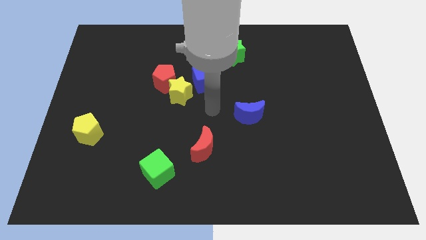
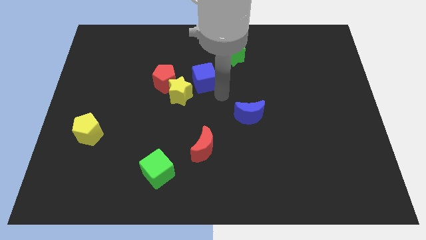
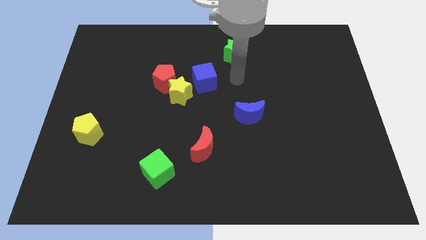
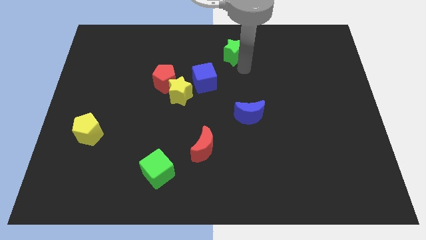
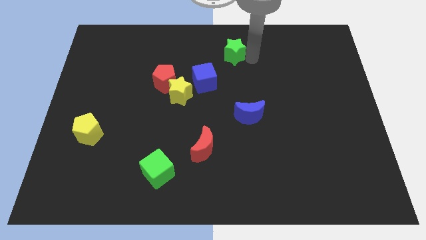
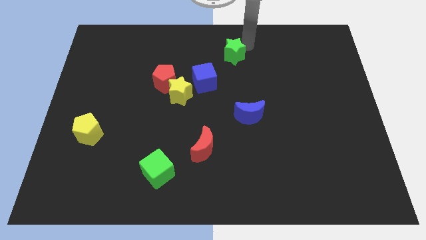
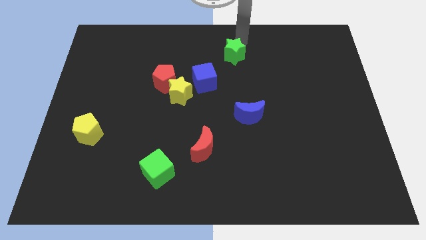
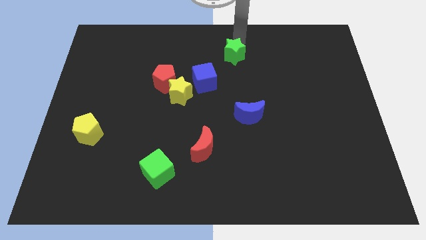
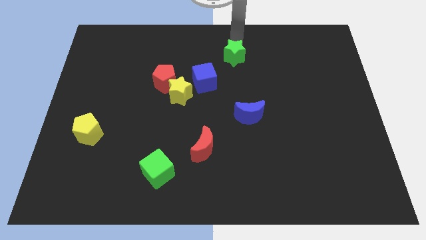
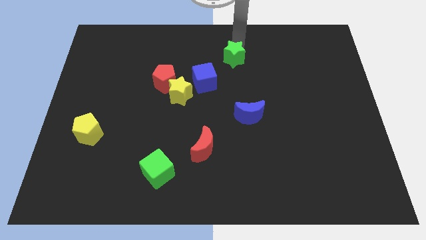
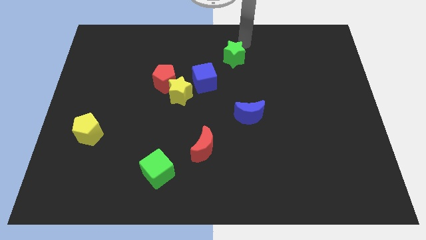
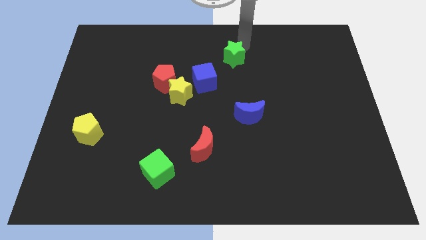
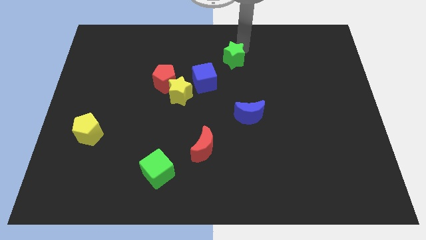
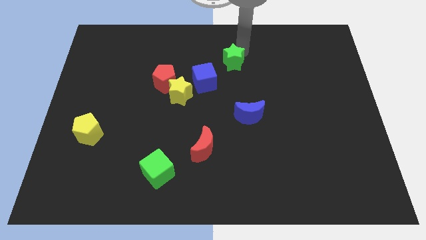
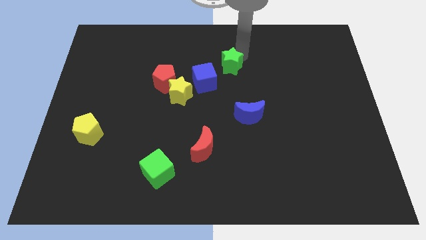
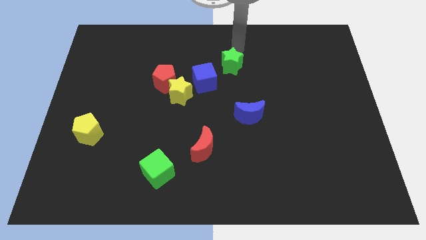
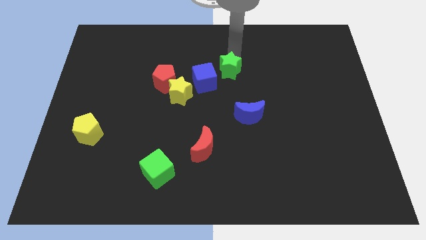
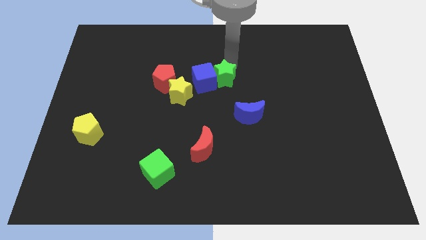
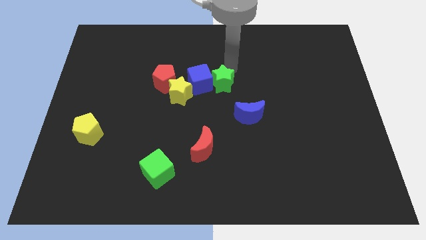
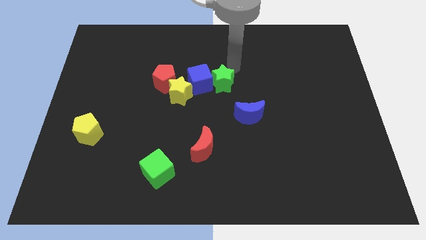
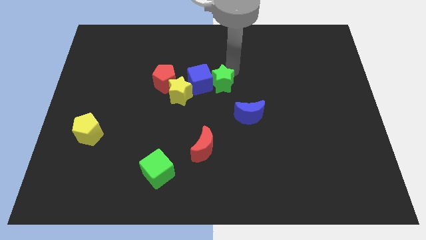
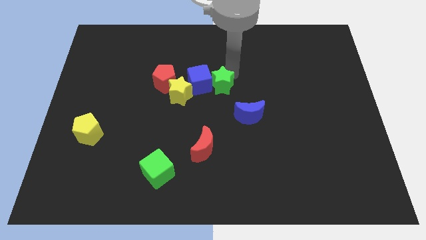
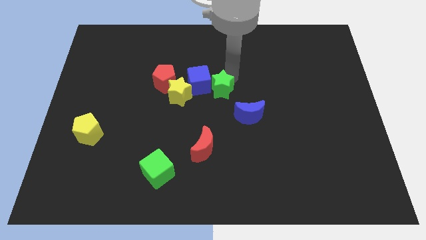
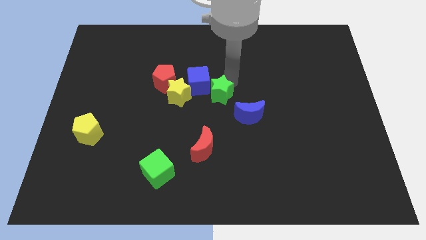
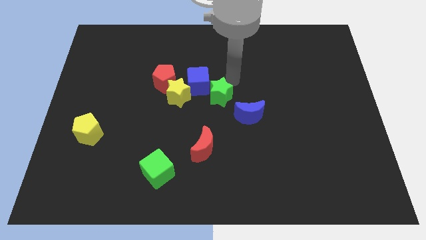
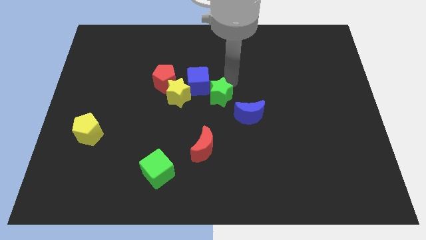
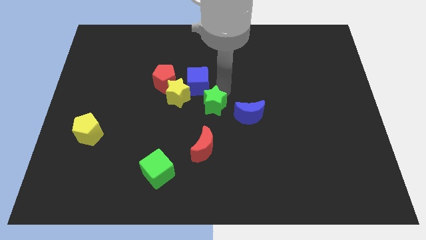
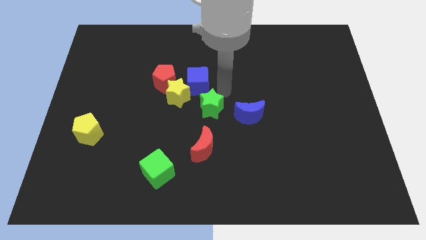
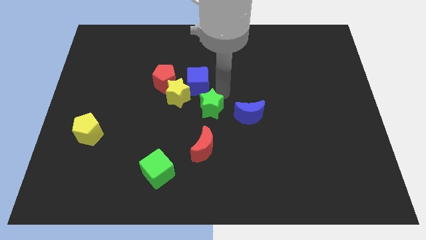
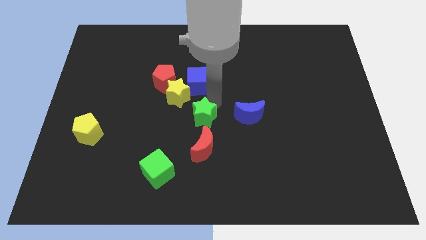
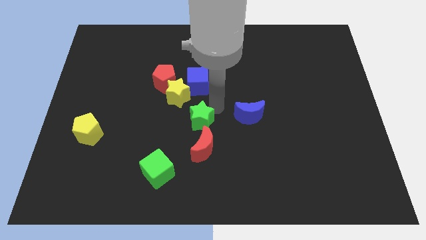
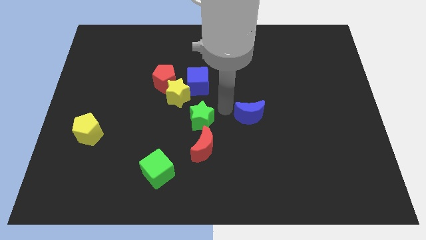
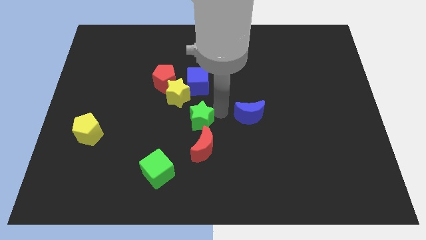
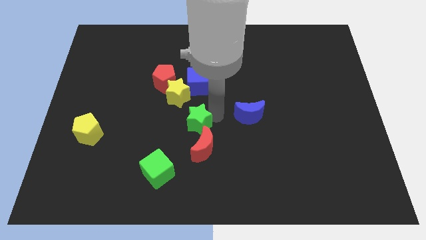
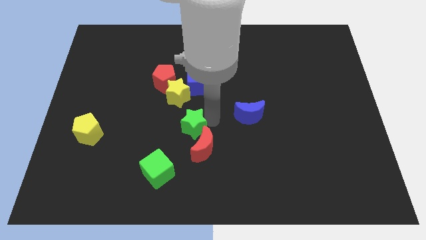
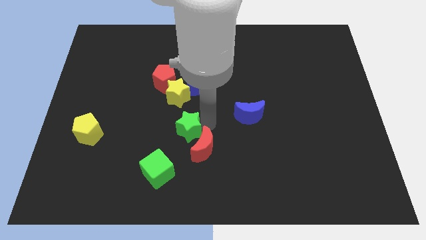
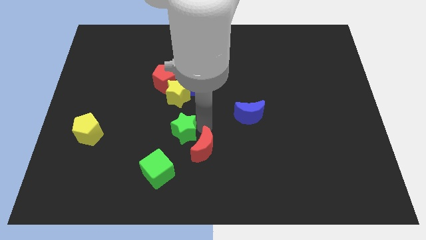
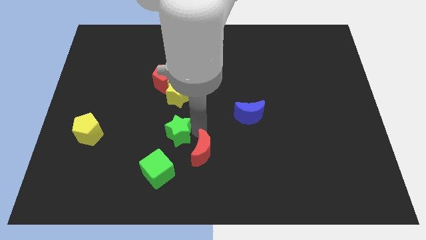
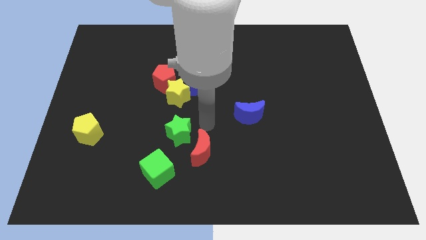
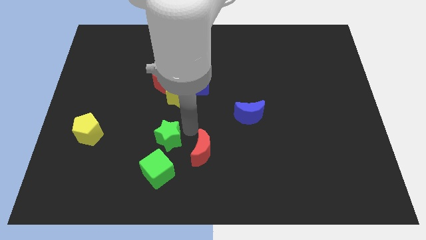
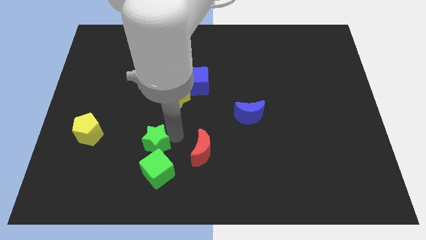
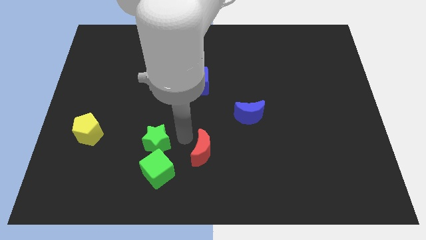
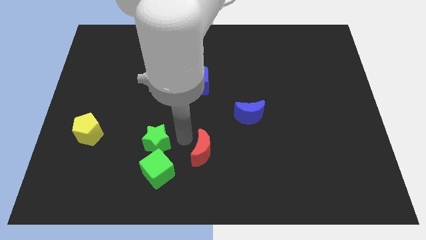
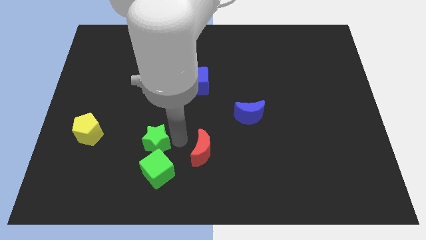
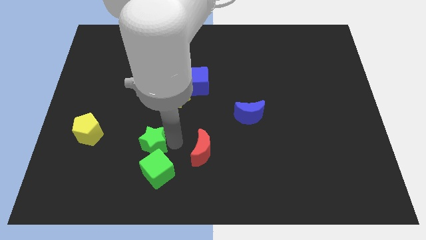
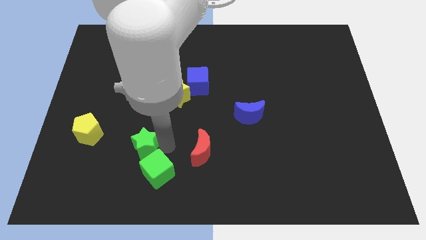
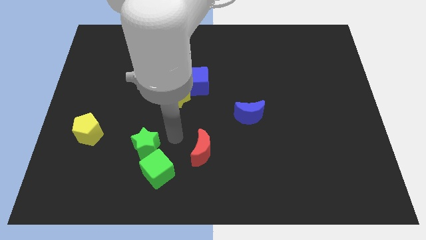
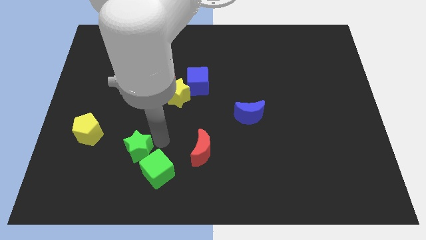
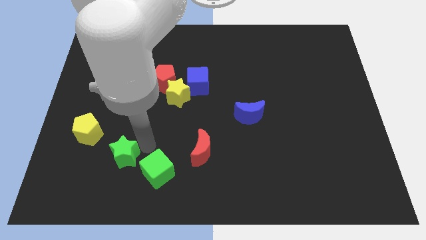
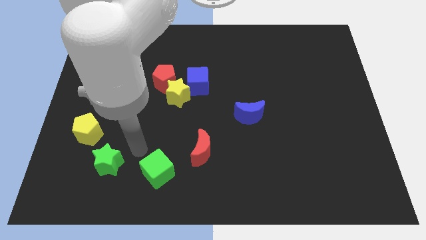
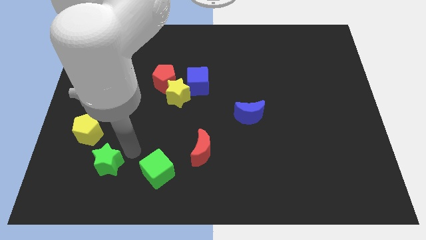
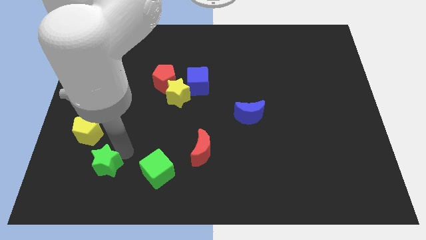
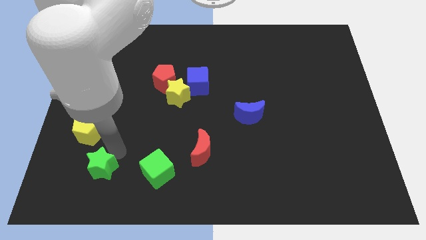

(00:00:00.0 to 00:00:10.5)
move the green star below the yellow pentagon

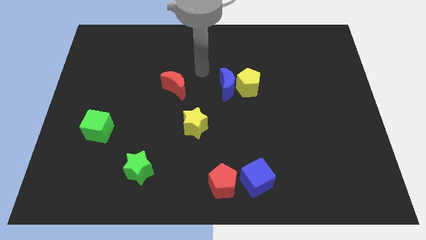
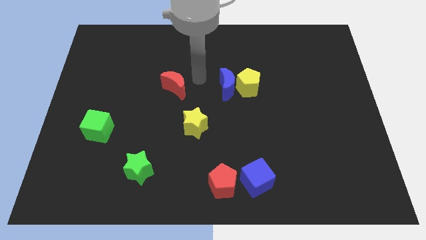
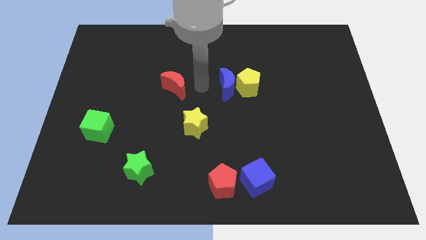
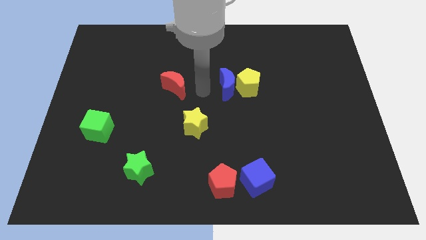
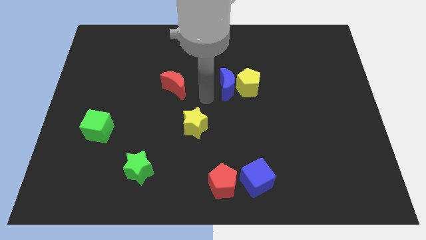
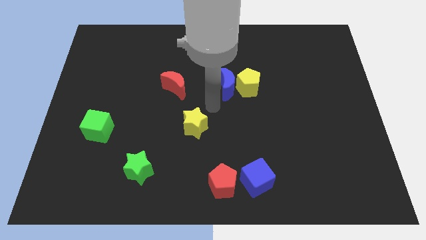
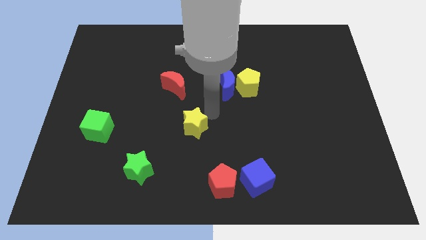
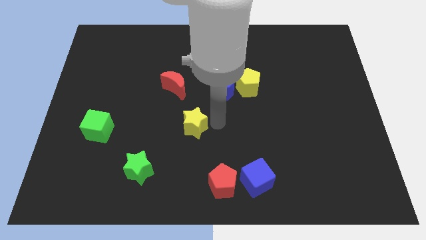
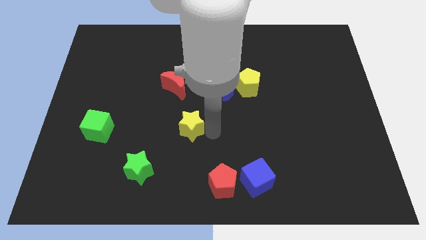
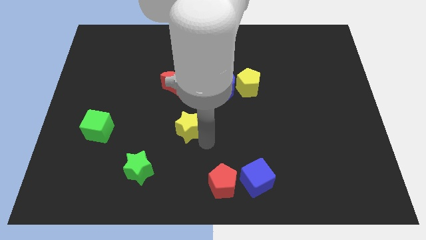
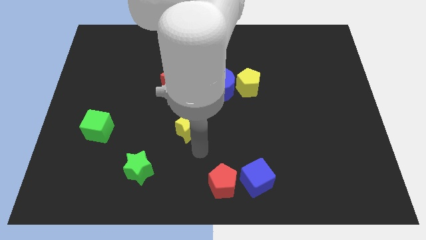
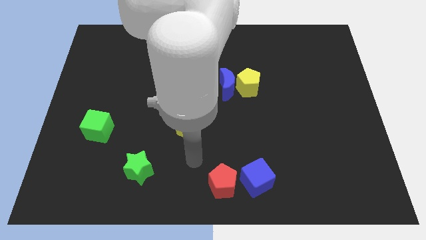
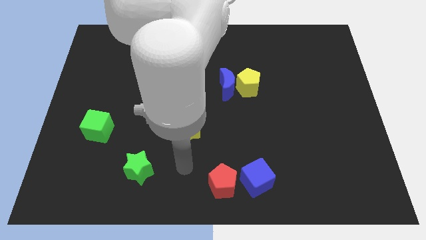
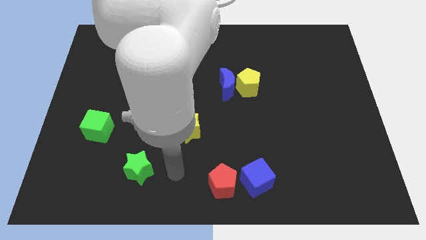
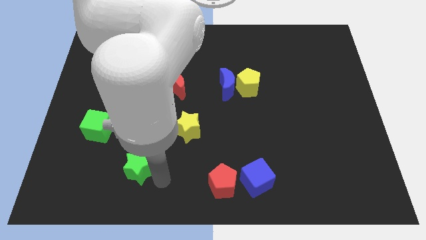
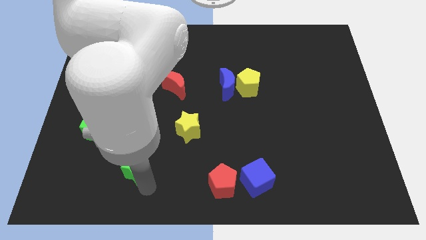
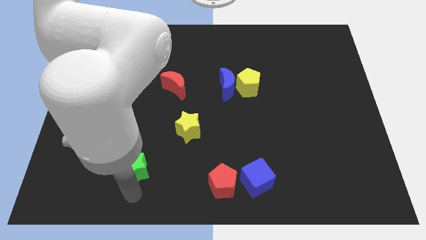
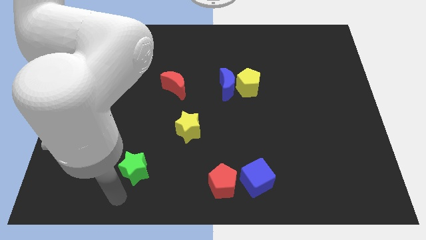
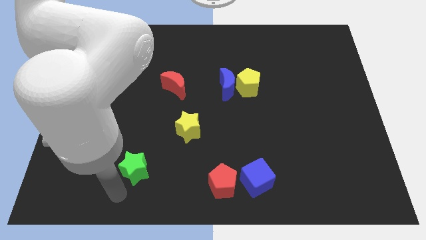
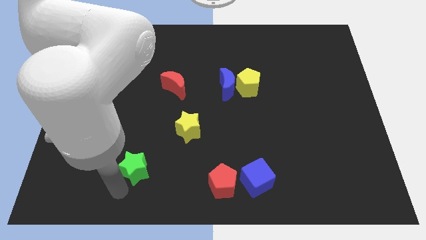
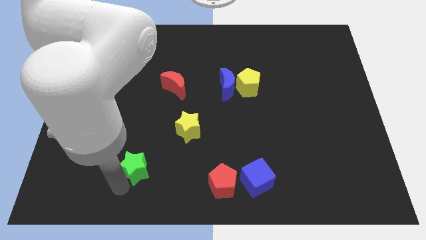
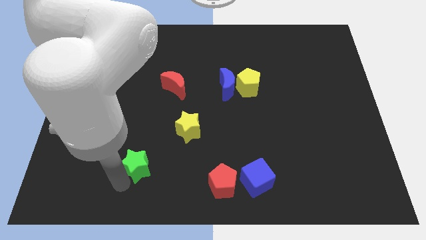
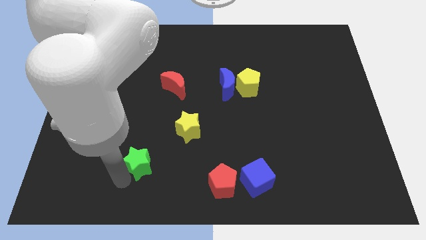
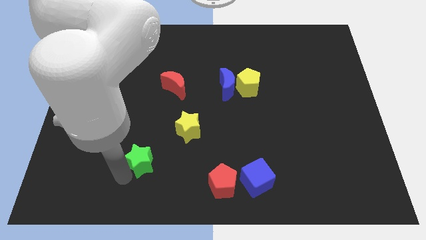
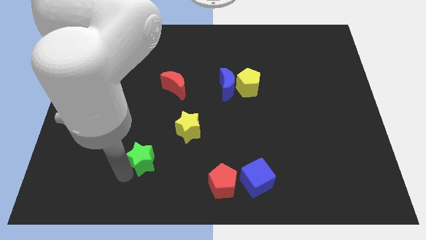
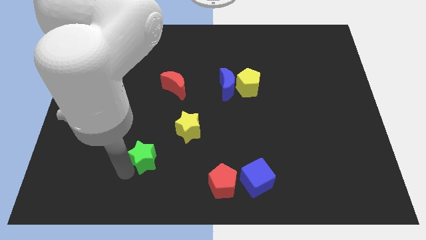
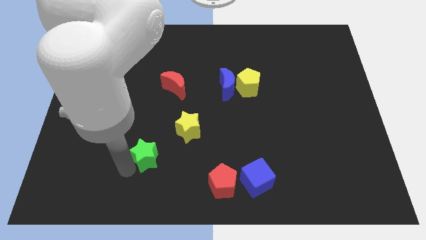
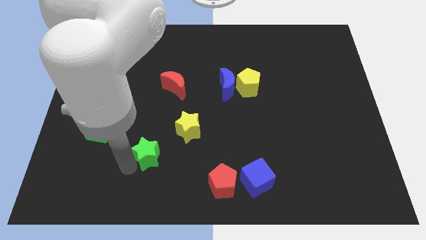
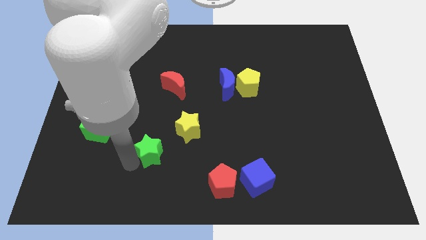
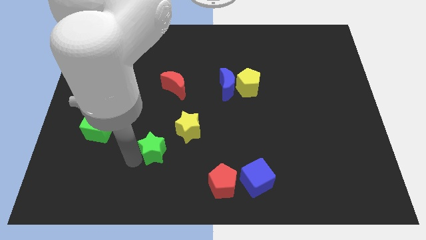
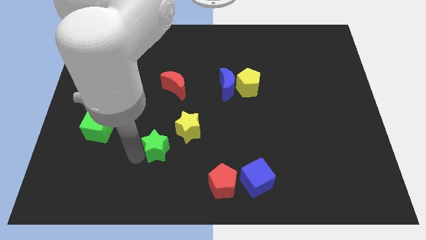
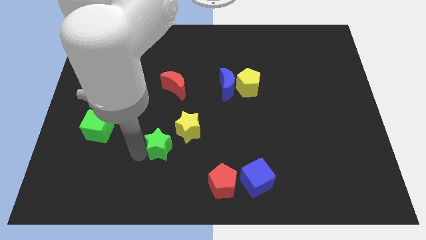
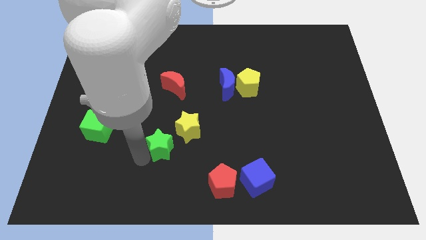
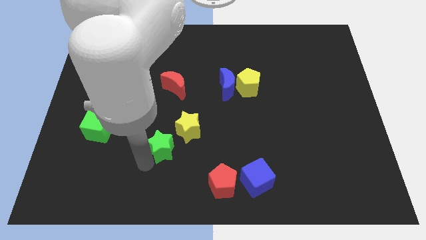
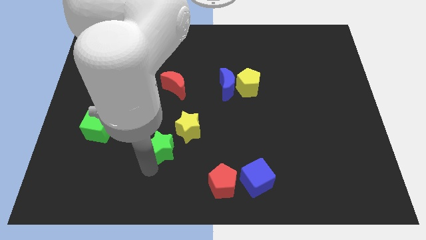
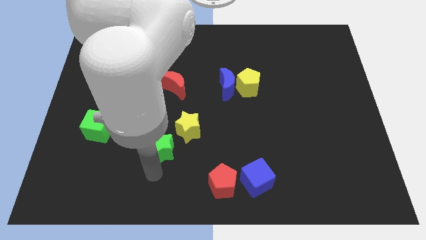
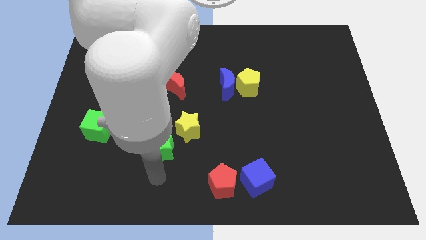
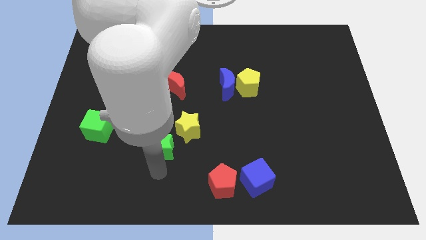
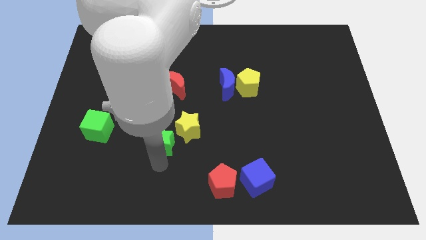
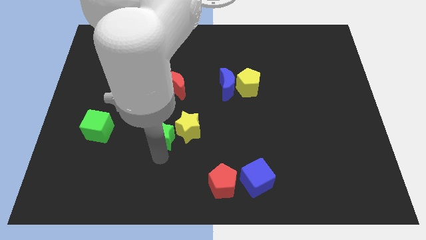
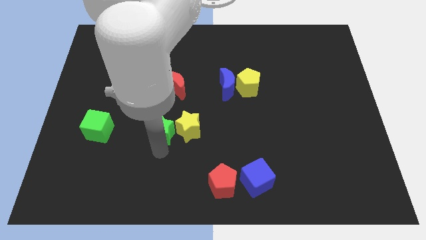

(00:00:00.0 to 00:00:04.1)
move the green star to the top left side of the yellow star
